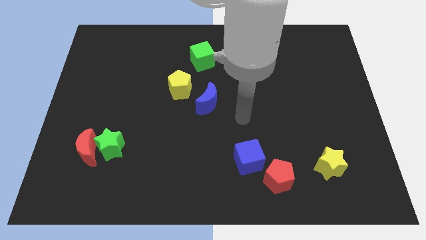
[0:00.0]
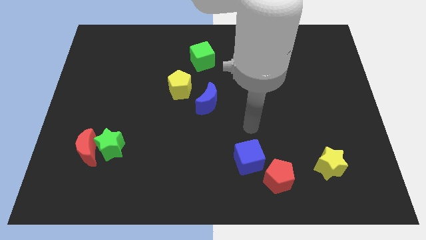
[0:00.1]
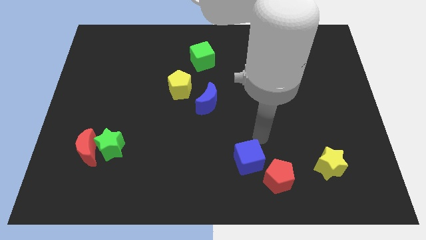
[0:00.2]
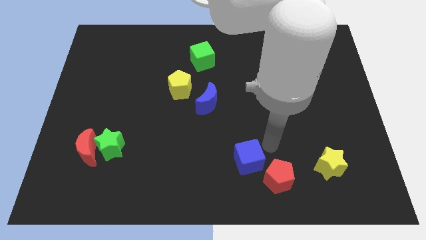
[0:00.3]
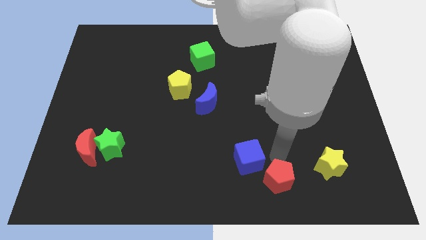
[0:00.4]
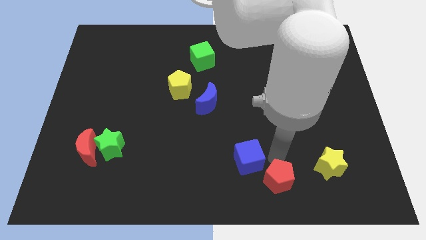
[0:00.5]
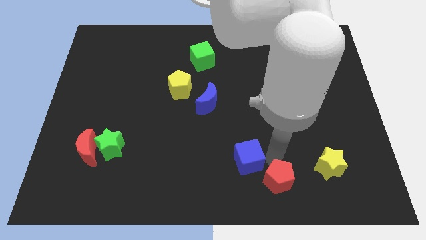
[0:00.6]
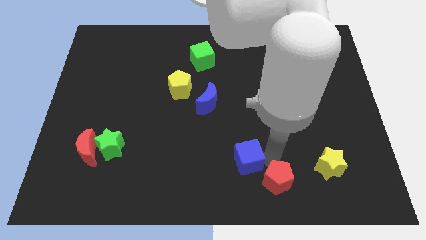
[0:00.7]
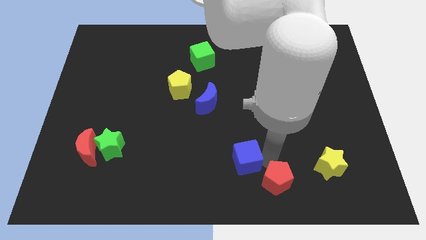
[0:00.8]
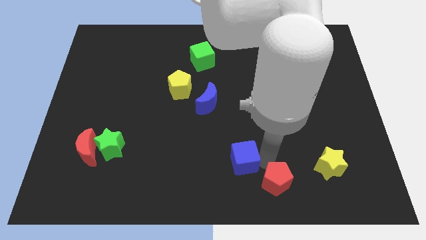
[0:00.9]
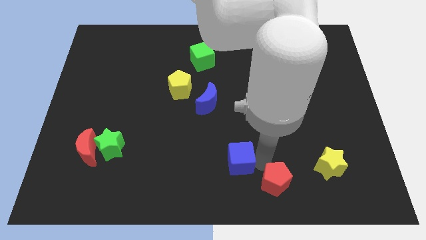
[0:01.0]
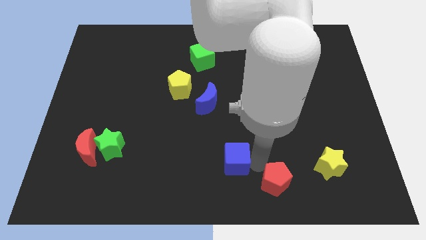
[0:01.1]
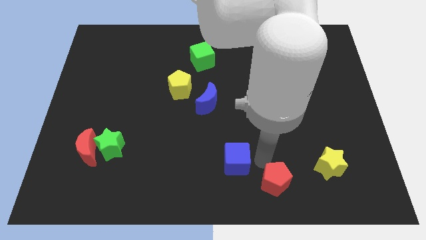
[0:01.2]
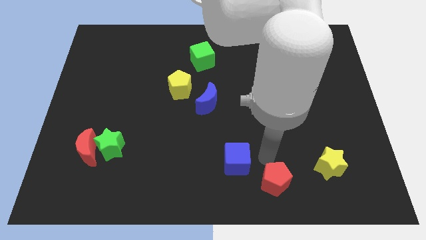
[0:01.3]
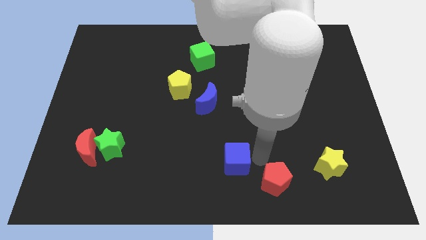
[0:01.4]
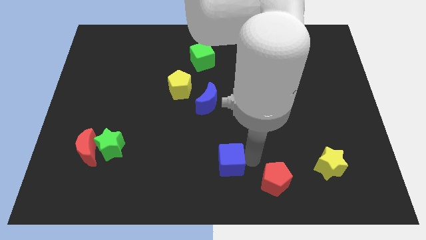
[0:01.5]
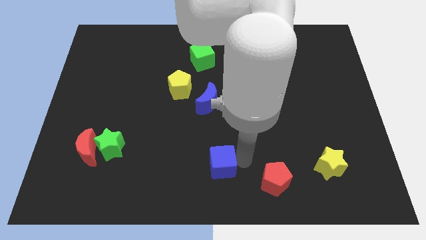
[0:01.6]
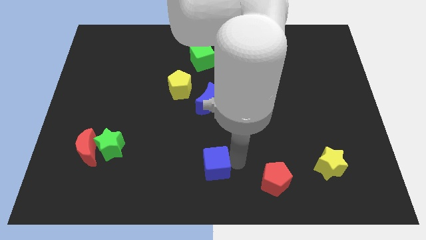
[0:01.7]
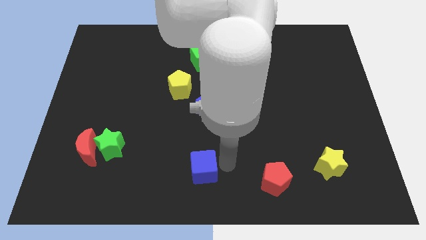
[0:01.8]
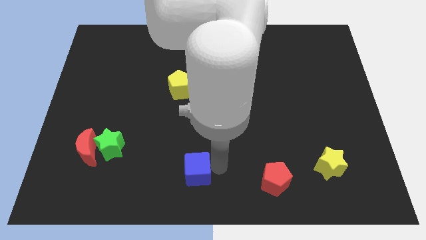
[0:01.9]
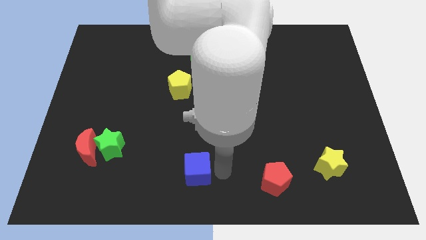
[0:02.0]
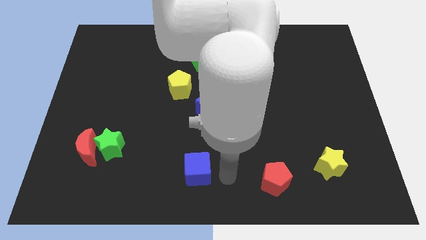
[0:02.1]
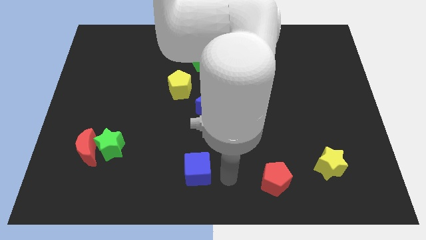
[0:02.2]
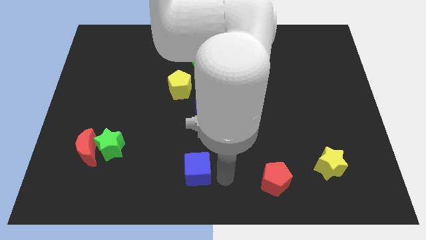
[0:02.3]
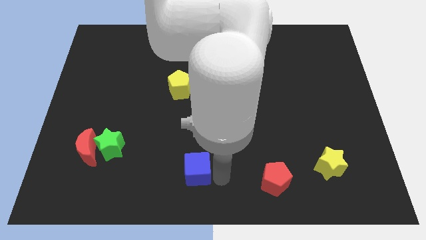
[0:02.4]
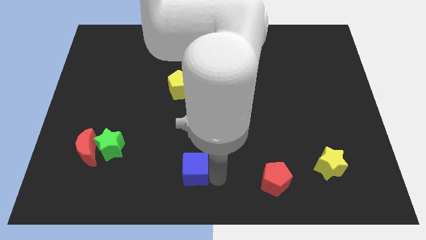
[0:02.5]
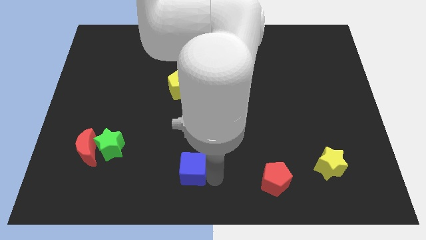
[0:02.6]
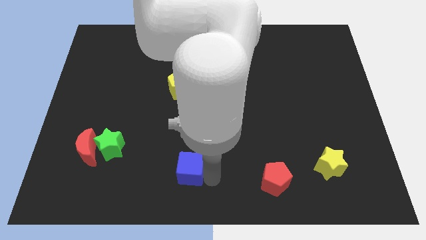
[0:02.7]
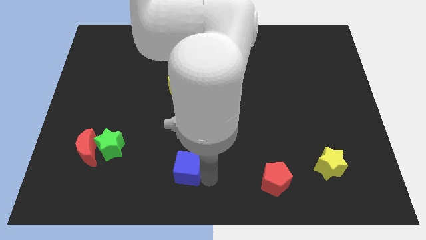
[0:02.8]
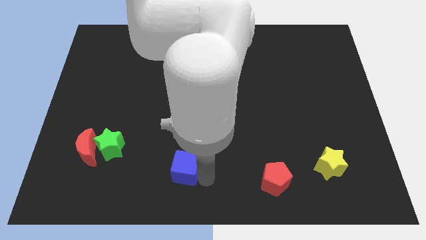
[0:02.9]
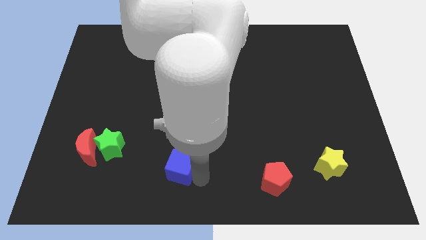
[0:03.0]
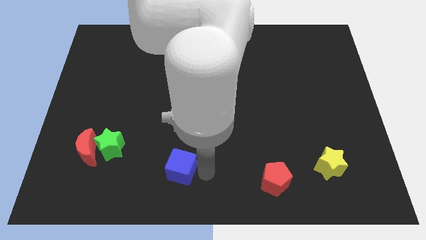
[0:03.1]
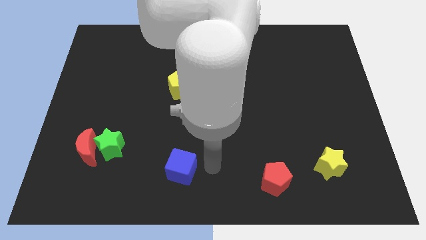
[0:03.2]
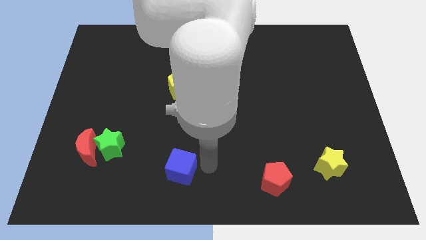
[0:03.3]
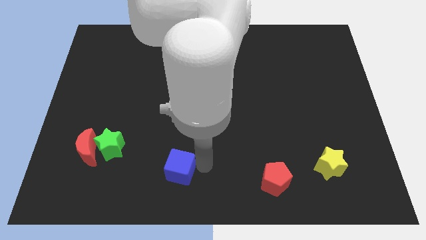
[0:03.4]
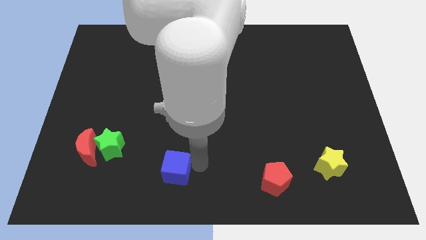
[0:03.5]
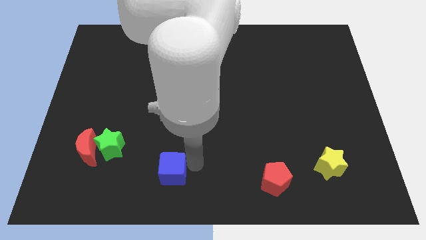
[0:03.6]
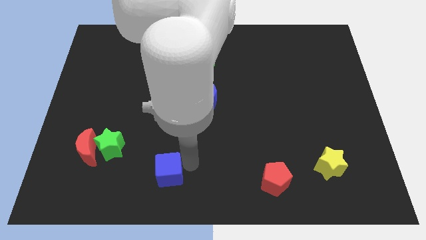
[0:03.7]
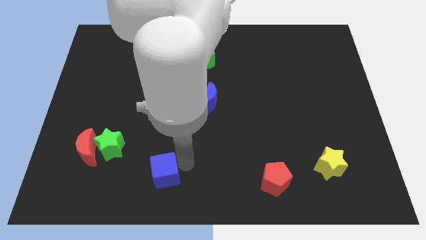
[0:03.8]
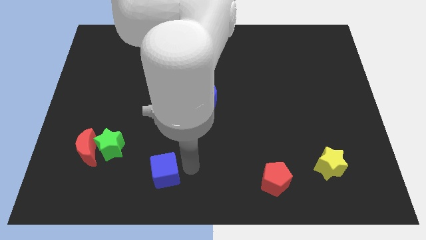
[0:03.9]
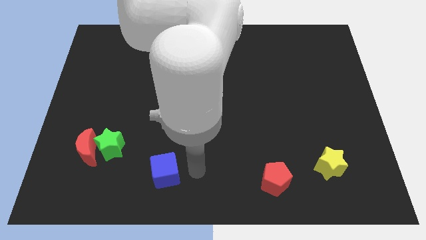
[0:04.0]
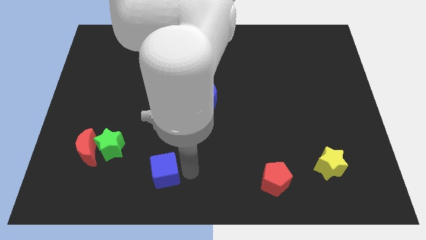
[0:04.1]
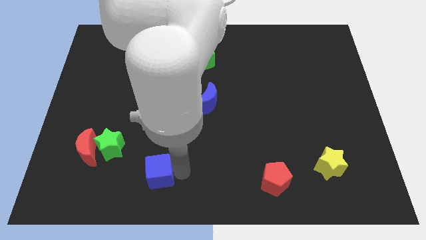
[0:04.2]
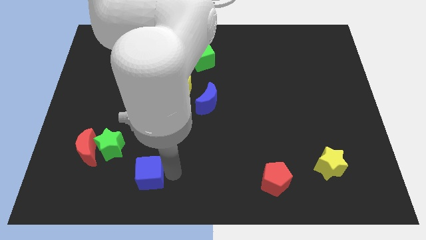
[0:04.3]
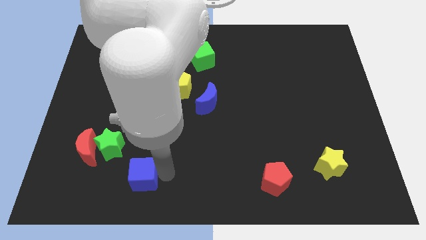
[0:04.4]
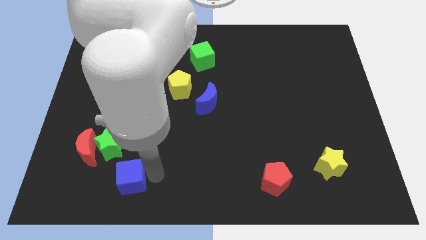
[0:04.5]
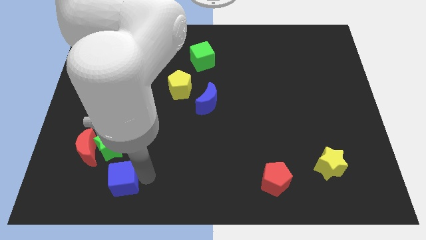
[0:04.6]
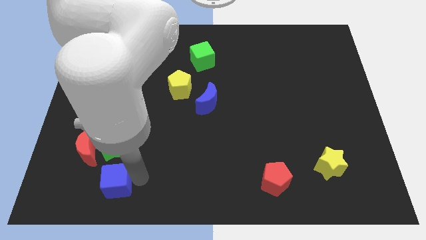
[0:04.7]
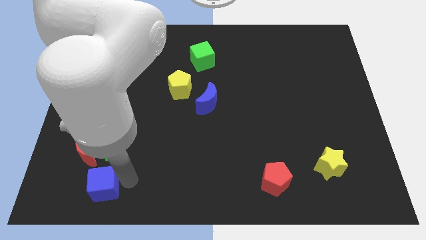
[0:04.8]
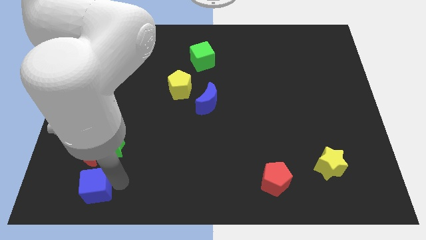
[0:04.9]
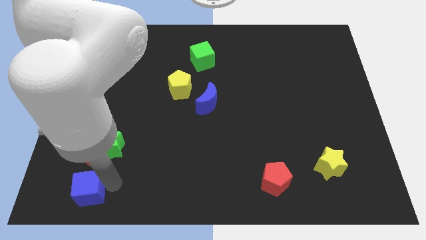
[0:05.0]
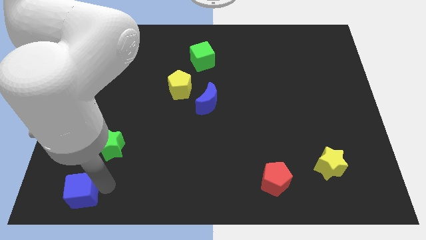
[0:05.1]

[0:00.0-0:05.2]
slide the blue cube to the bottom left corner
